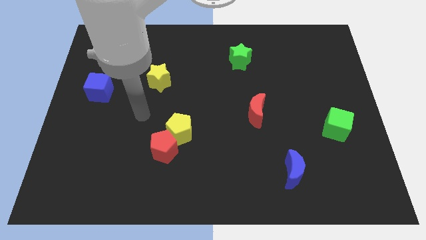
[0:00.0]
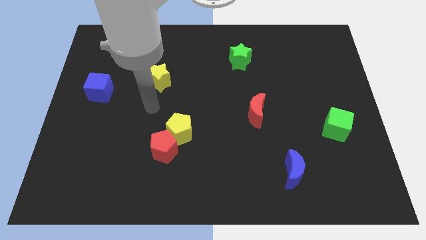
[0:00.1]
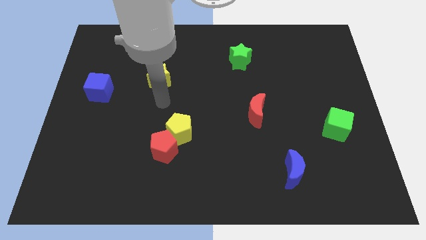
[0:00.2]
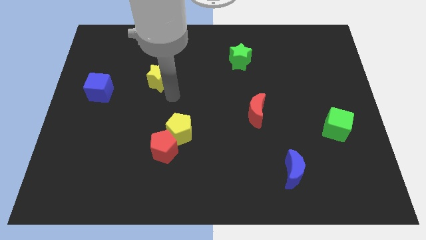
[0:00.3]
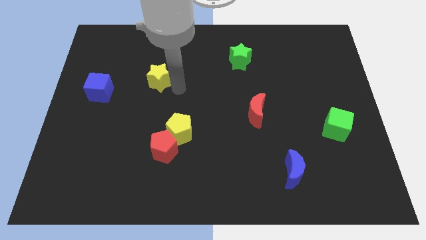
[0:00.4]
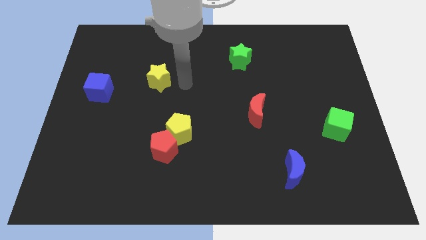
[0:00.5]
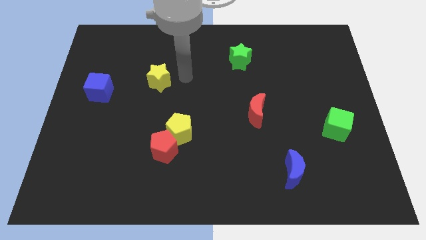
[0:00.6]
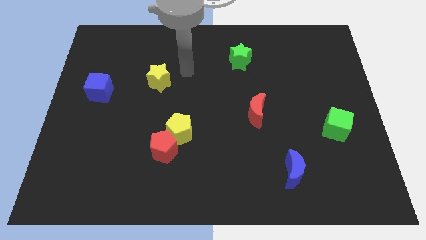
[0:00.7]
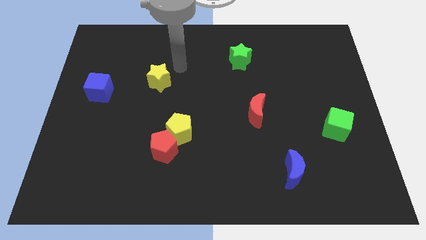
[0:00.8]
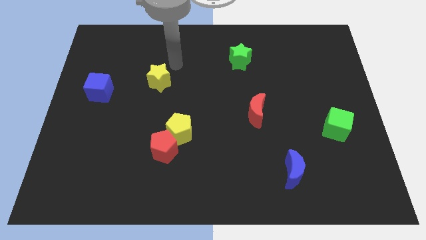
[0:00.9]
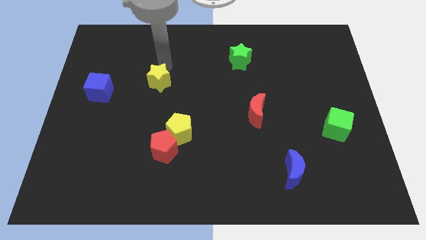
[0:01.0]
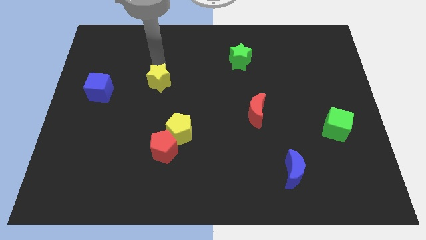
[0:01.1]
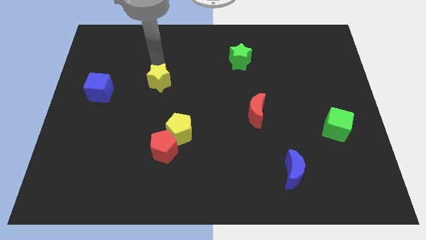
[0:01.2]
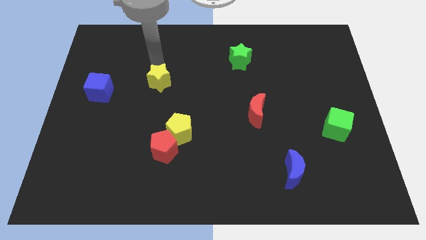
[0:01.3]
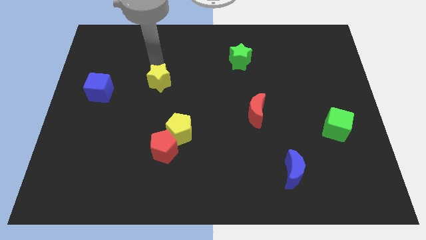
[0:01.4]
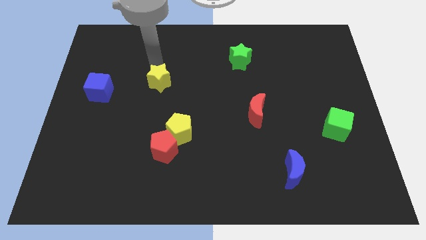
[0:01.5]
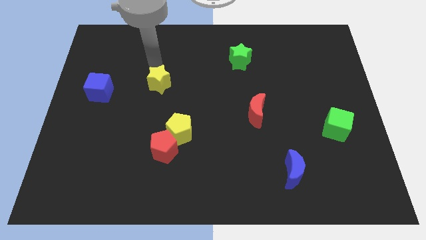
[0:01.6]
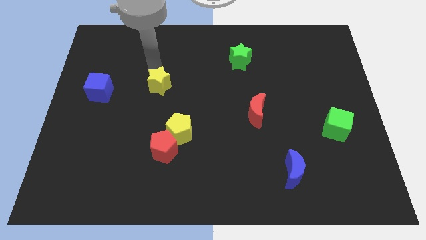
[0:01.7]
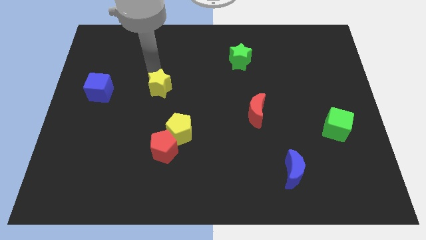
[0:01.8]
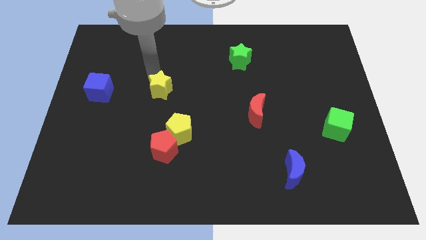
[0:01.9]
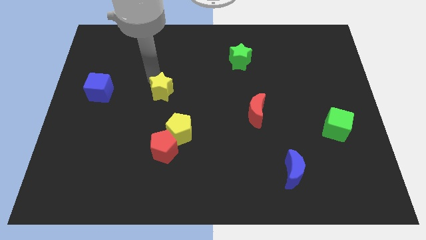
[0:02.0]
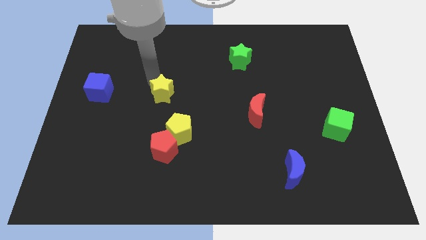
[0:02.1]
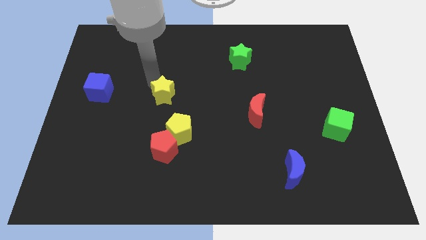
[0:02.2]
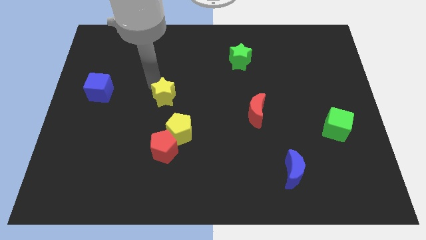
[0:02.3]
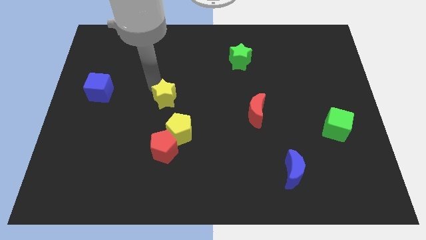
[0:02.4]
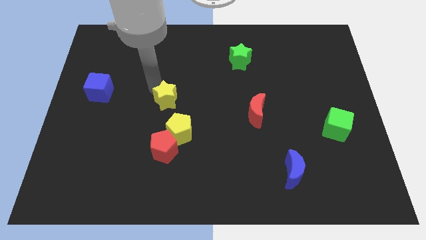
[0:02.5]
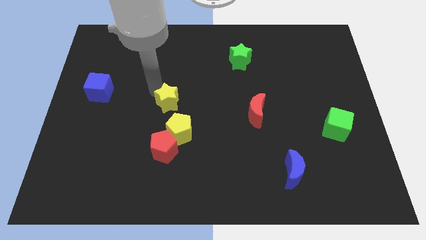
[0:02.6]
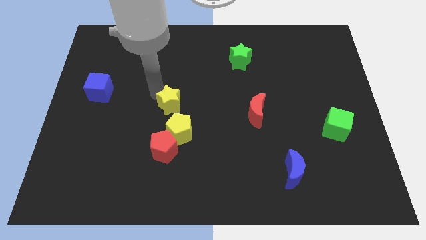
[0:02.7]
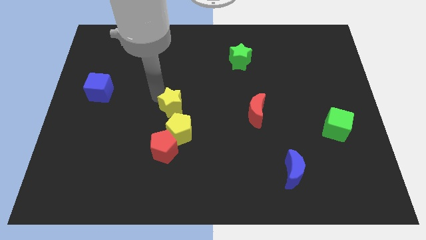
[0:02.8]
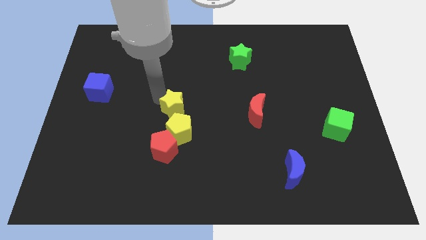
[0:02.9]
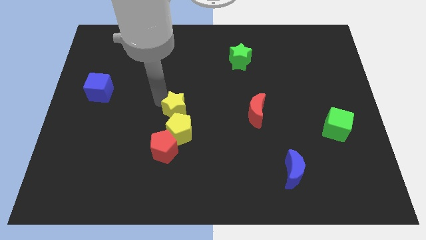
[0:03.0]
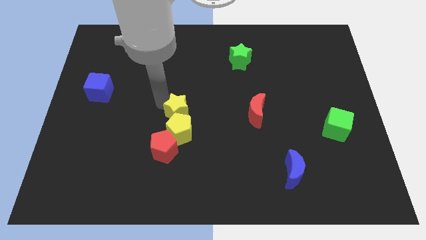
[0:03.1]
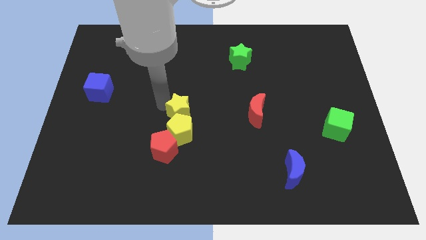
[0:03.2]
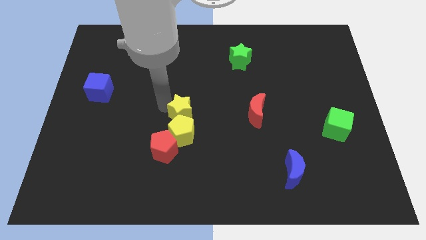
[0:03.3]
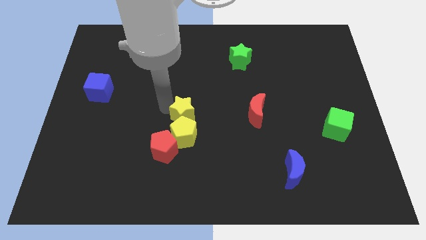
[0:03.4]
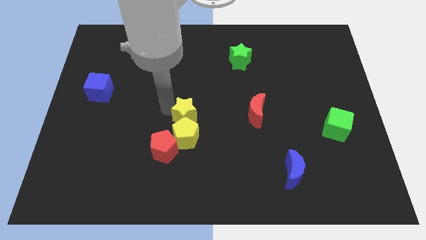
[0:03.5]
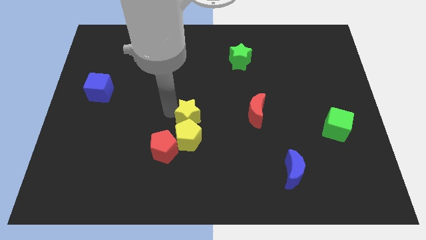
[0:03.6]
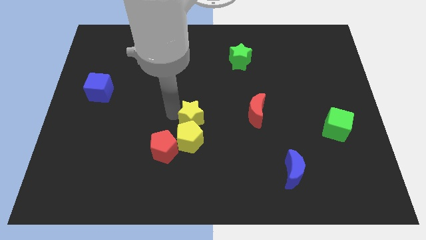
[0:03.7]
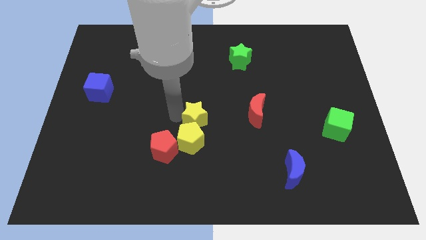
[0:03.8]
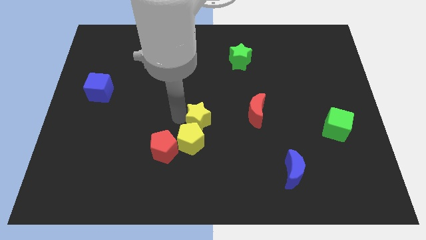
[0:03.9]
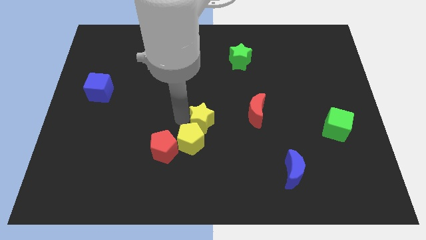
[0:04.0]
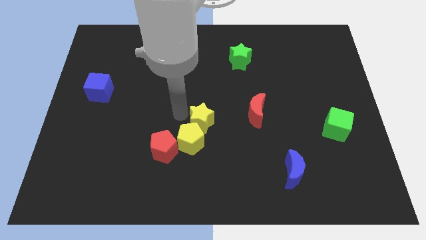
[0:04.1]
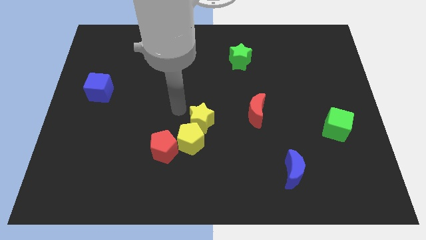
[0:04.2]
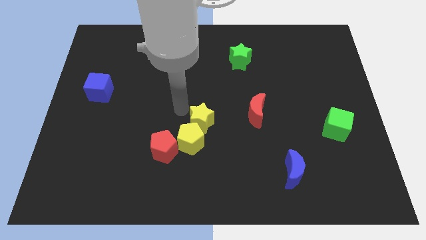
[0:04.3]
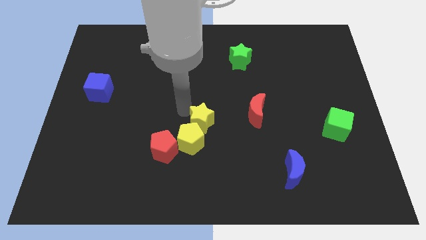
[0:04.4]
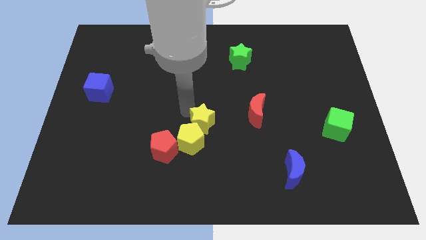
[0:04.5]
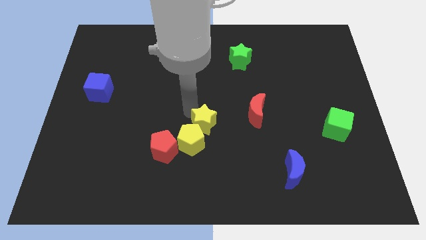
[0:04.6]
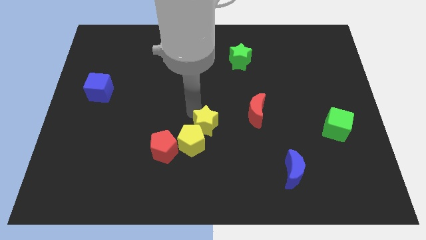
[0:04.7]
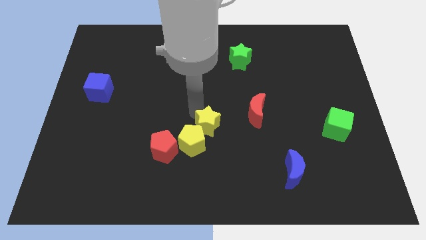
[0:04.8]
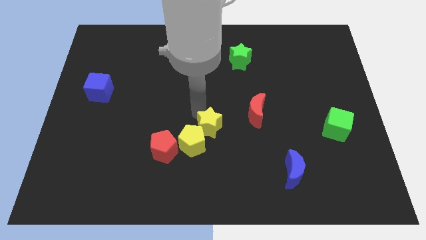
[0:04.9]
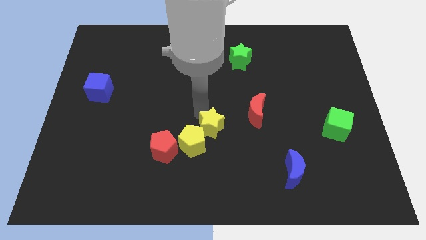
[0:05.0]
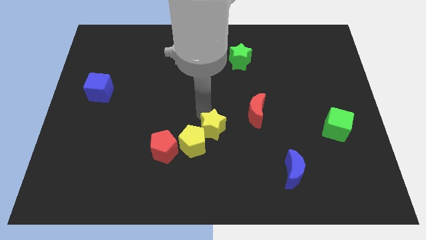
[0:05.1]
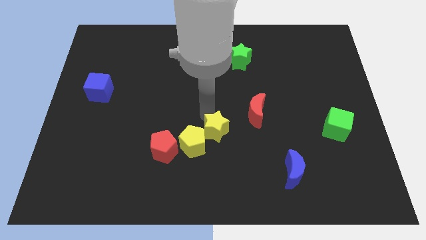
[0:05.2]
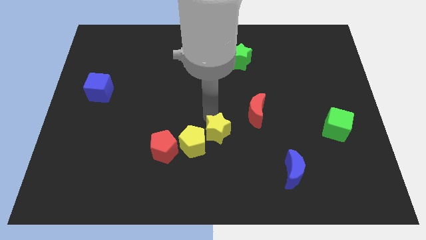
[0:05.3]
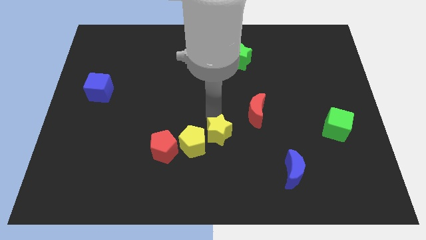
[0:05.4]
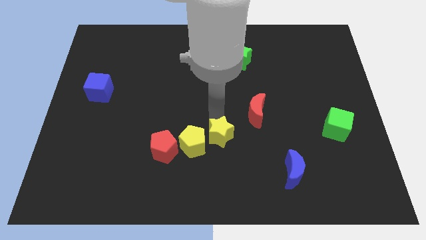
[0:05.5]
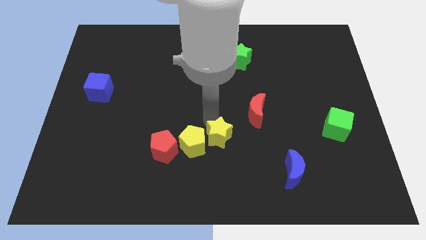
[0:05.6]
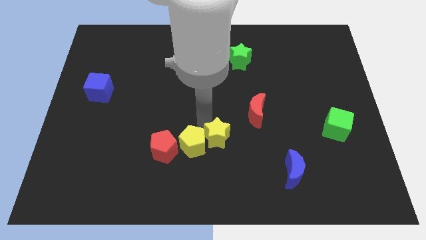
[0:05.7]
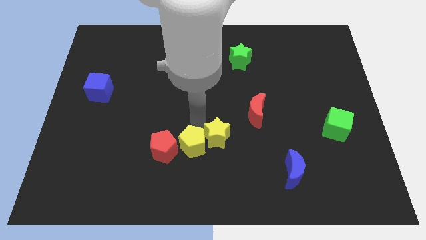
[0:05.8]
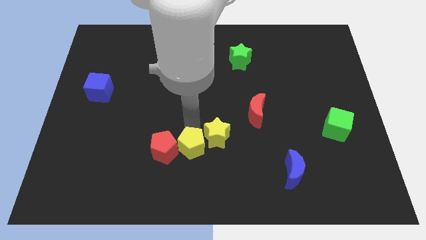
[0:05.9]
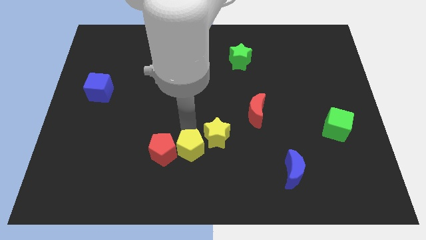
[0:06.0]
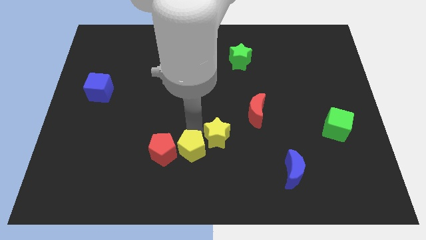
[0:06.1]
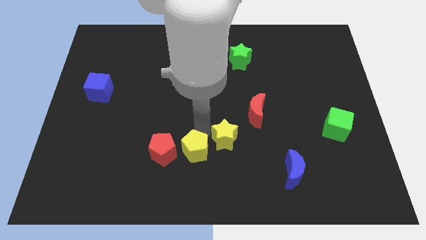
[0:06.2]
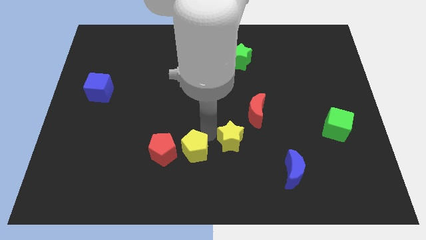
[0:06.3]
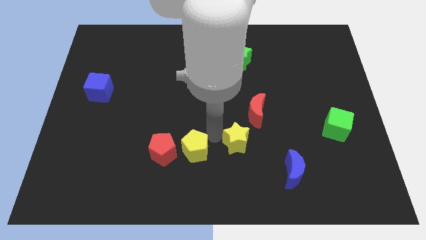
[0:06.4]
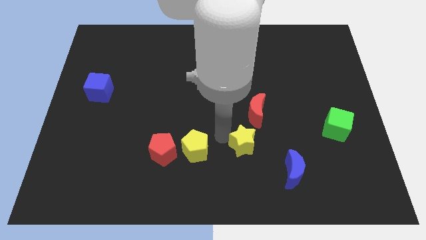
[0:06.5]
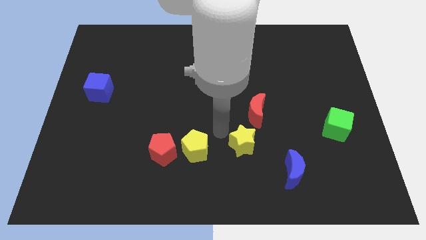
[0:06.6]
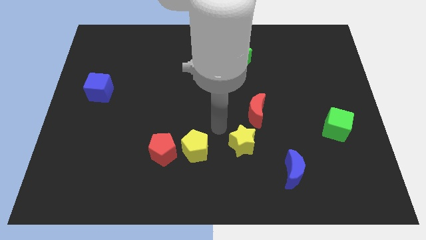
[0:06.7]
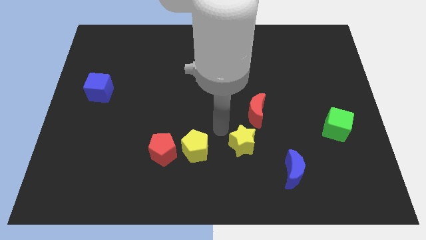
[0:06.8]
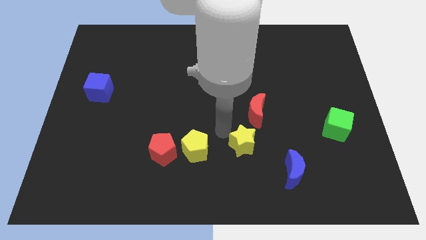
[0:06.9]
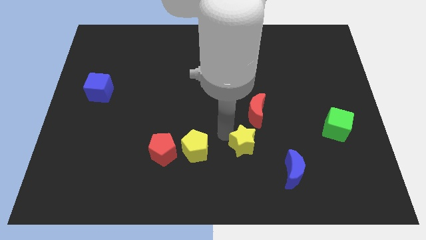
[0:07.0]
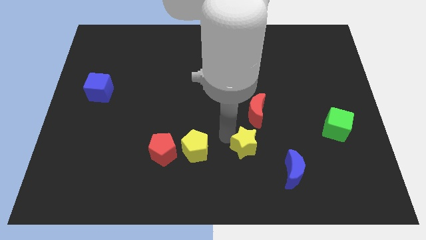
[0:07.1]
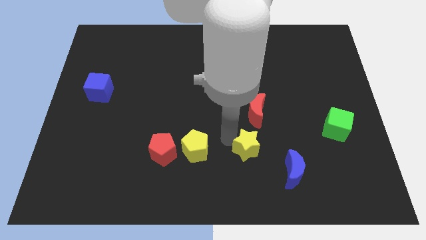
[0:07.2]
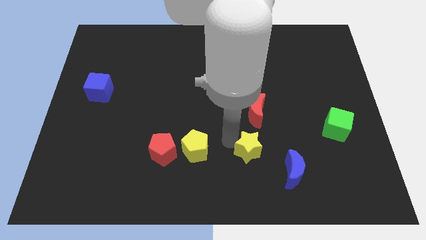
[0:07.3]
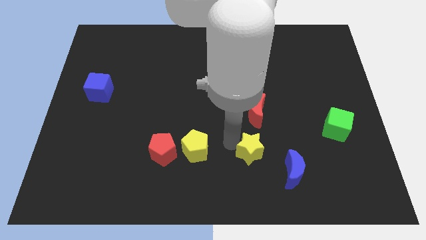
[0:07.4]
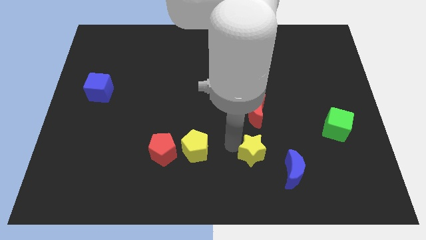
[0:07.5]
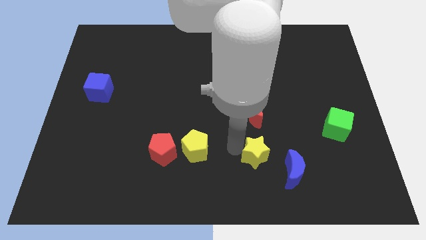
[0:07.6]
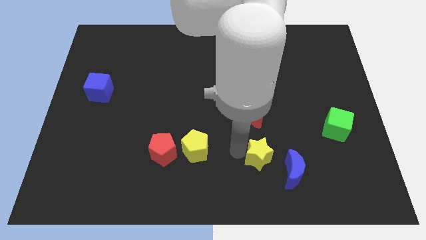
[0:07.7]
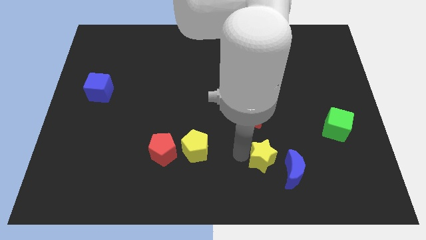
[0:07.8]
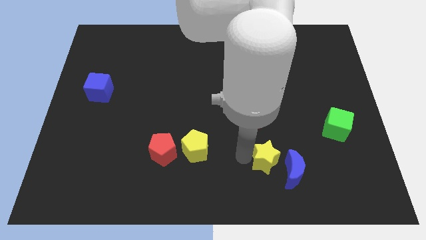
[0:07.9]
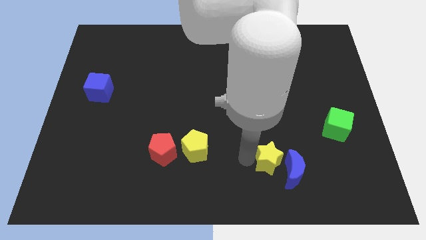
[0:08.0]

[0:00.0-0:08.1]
move the yellow star close to the blue moon

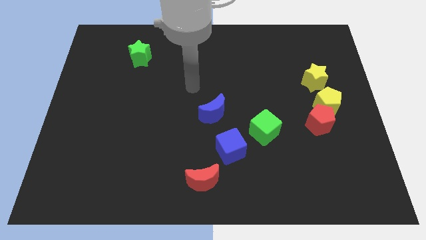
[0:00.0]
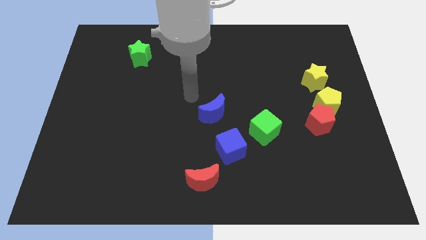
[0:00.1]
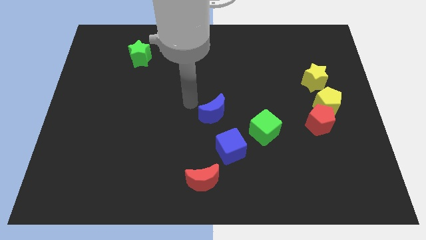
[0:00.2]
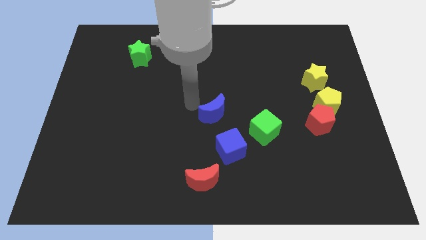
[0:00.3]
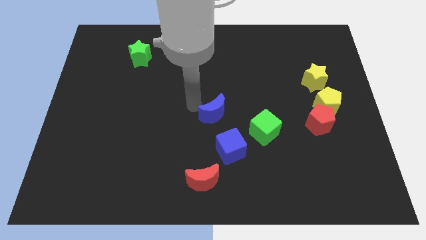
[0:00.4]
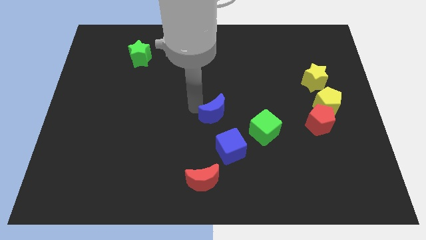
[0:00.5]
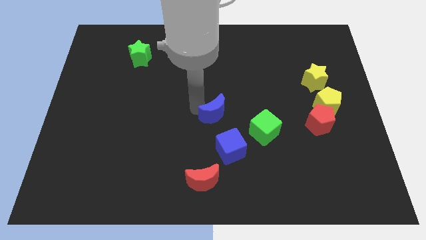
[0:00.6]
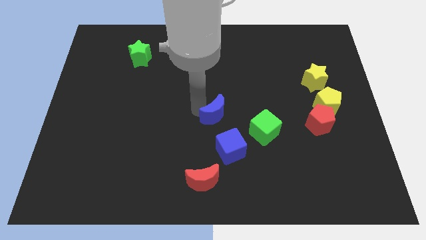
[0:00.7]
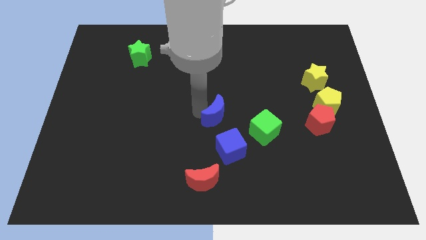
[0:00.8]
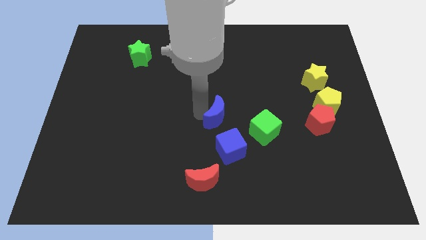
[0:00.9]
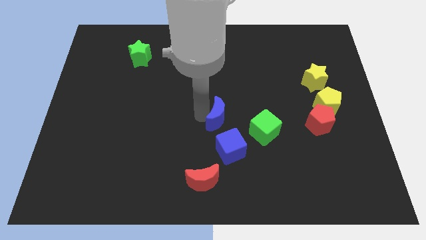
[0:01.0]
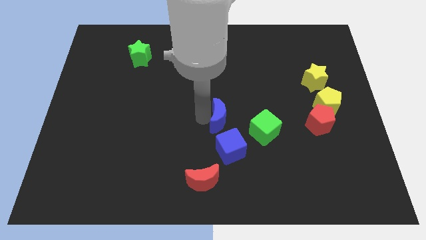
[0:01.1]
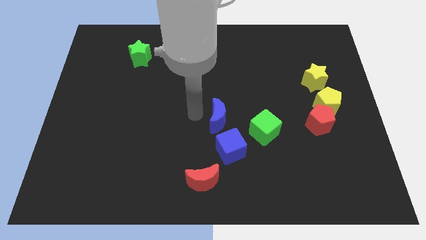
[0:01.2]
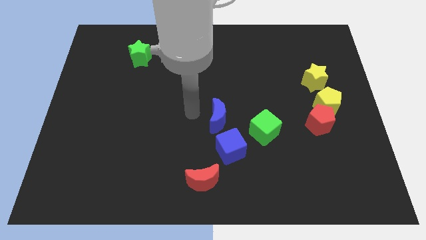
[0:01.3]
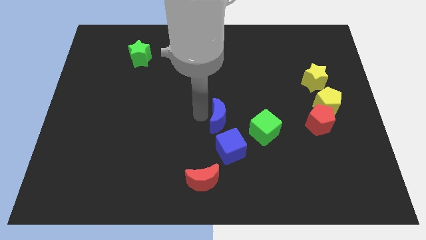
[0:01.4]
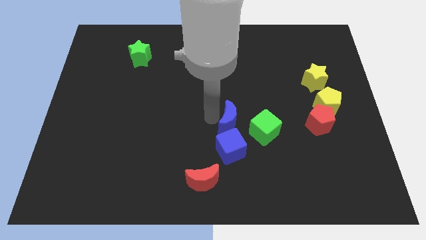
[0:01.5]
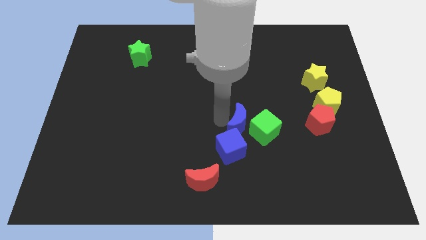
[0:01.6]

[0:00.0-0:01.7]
move the blue moon next to the green cube
